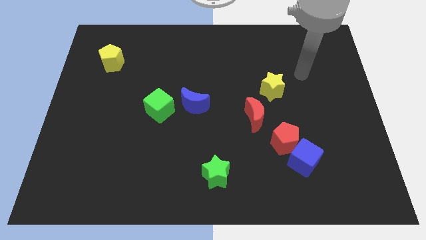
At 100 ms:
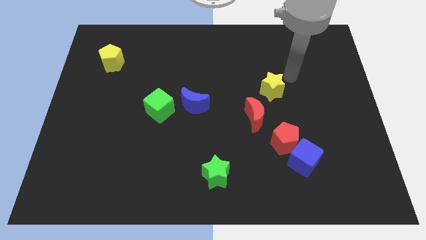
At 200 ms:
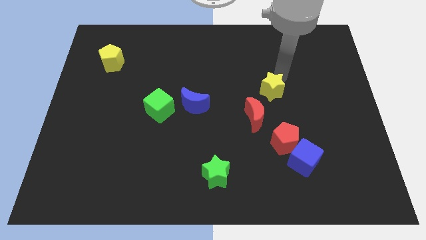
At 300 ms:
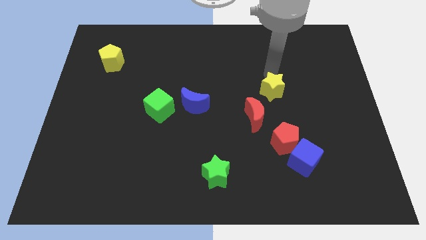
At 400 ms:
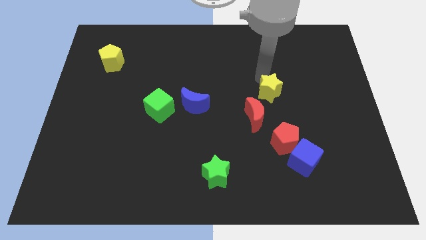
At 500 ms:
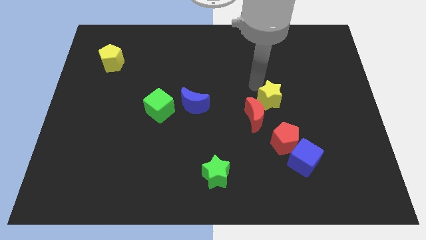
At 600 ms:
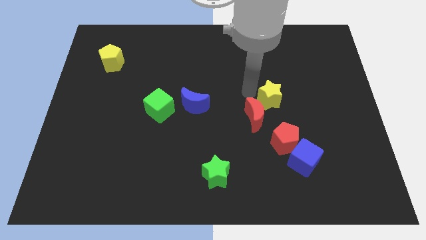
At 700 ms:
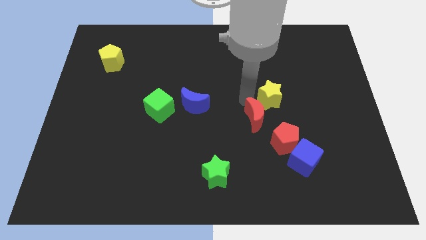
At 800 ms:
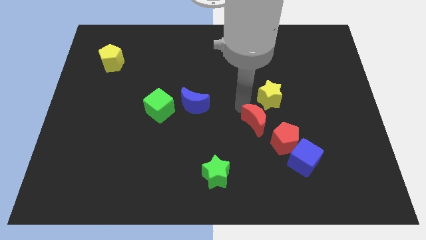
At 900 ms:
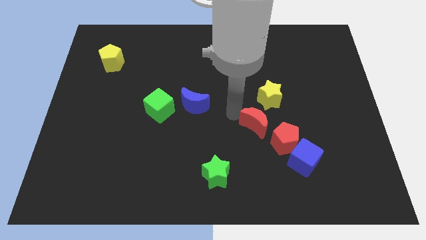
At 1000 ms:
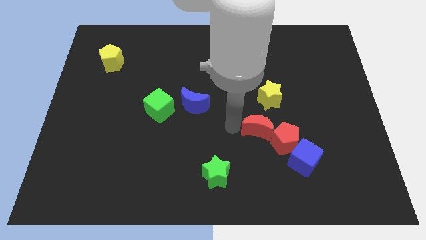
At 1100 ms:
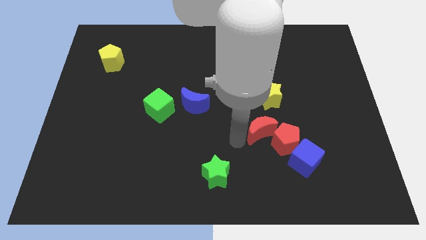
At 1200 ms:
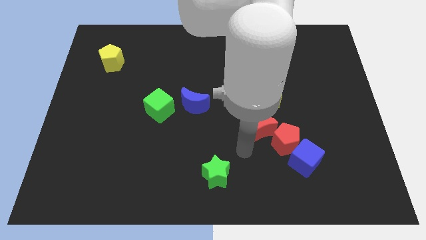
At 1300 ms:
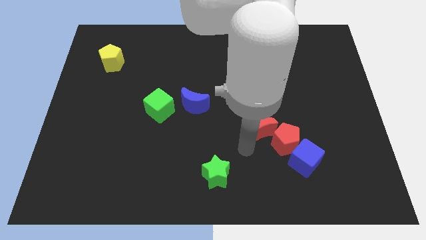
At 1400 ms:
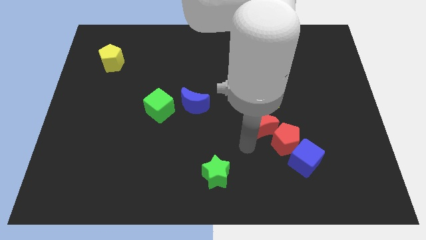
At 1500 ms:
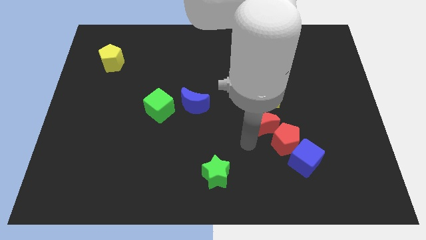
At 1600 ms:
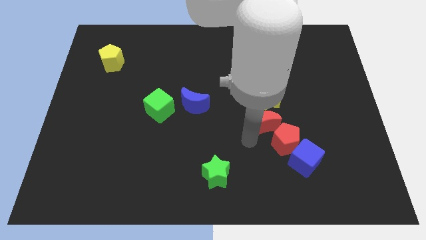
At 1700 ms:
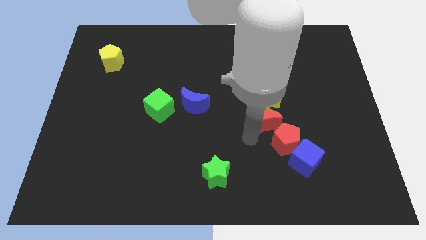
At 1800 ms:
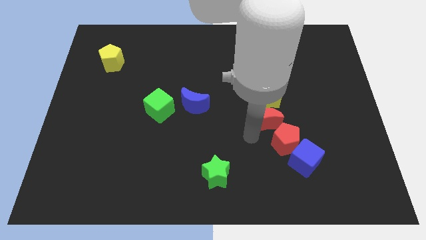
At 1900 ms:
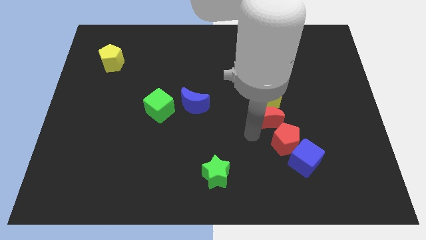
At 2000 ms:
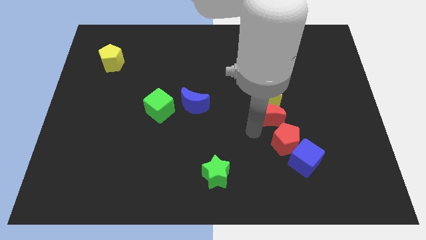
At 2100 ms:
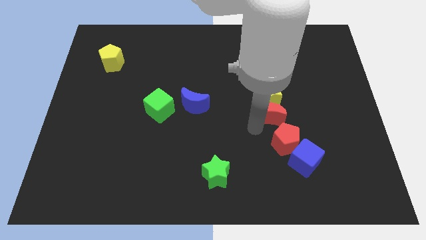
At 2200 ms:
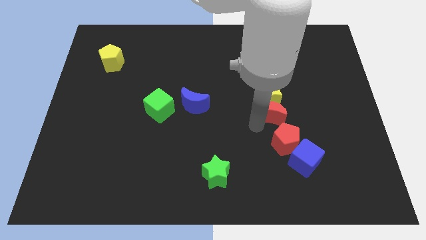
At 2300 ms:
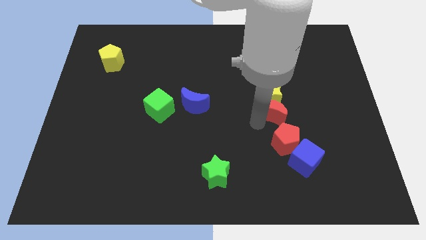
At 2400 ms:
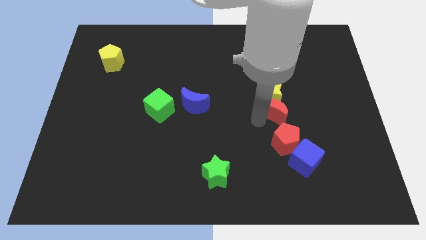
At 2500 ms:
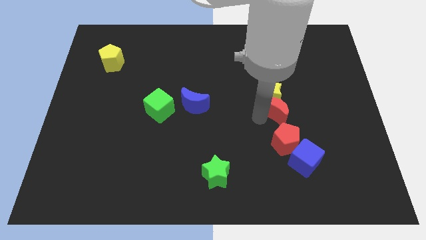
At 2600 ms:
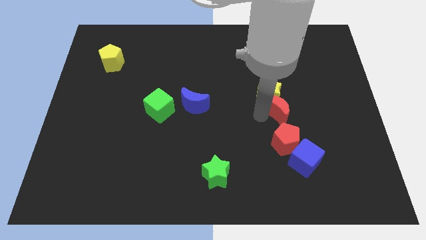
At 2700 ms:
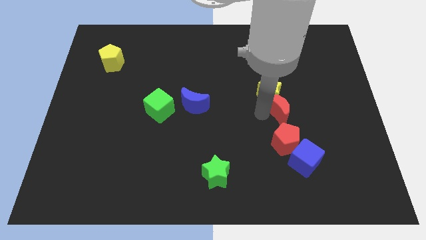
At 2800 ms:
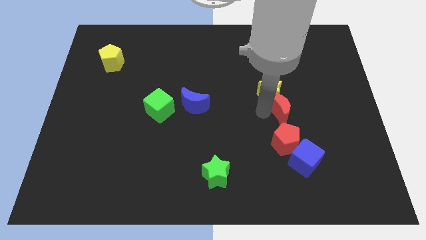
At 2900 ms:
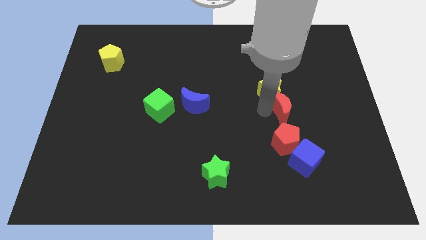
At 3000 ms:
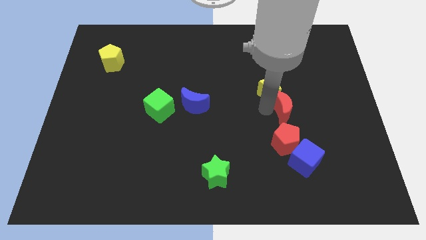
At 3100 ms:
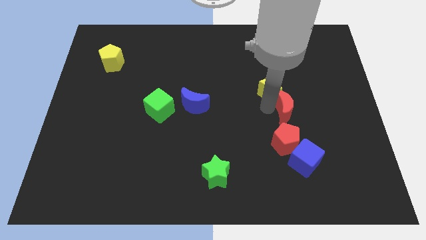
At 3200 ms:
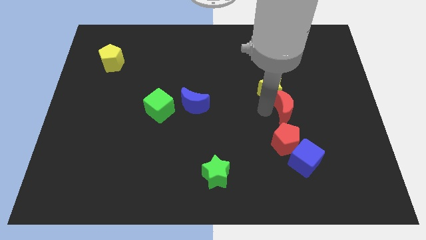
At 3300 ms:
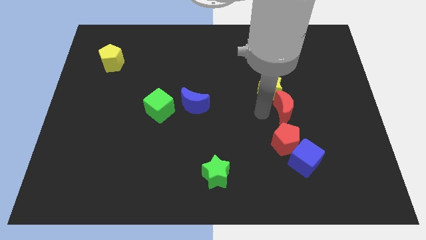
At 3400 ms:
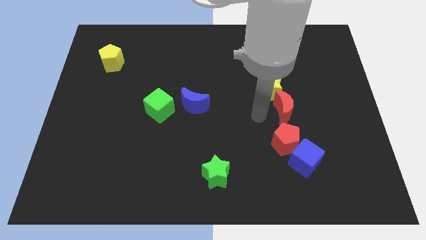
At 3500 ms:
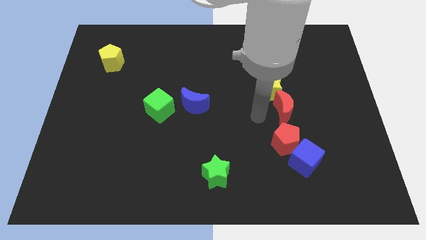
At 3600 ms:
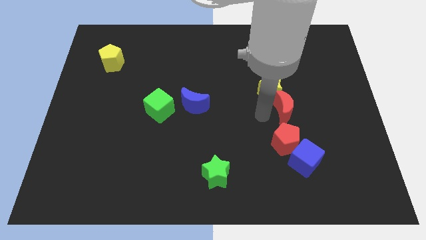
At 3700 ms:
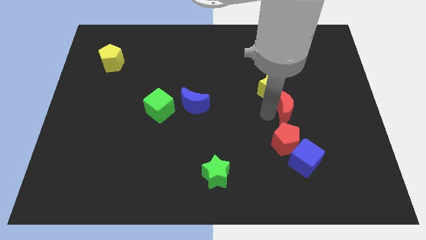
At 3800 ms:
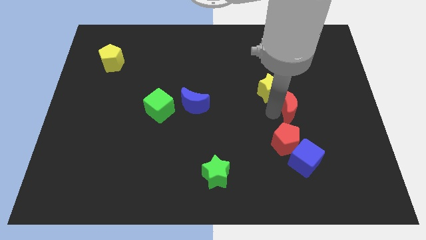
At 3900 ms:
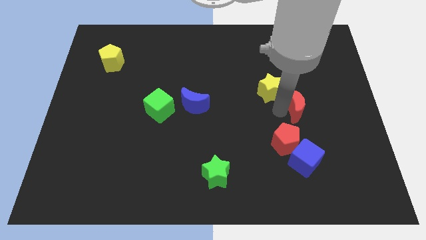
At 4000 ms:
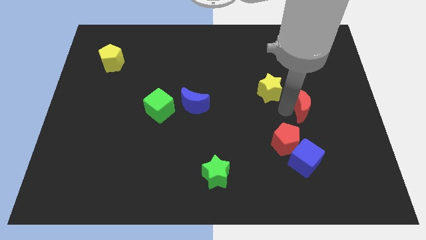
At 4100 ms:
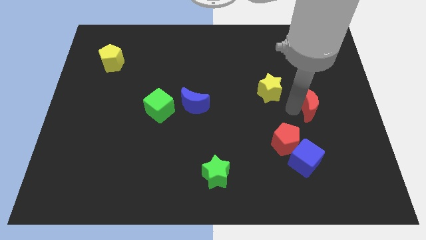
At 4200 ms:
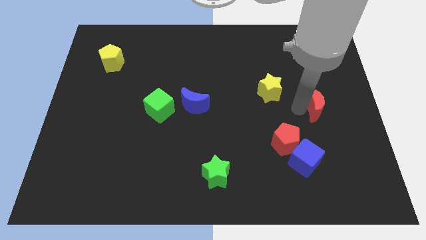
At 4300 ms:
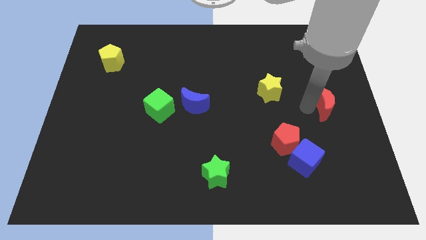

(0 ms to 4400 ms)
slide the red moon to the center right

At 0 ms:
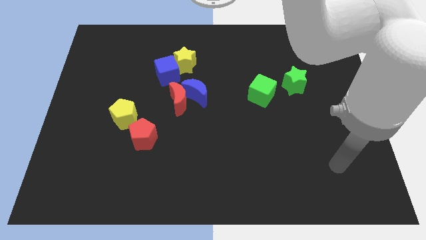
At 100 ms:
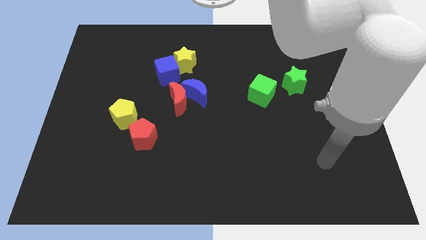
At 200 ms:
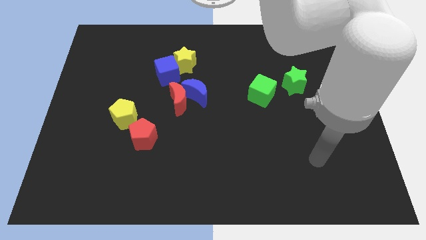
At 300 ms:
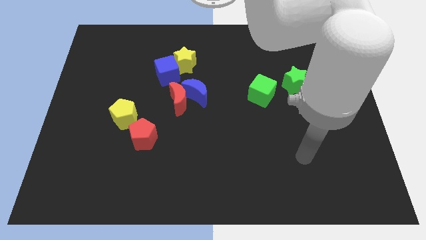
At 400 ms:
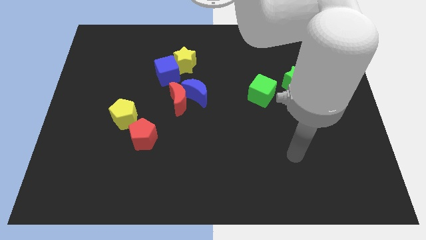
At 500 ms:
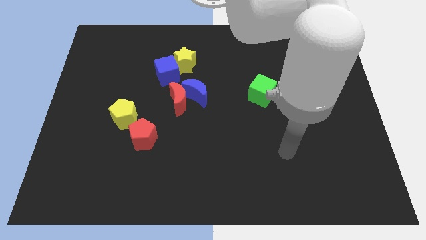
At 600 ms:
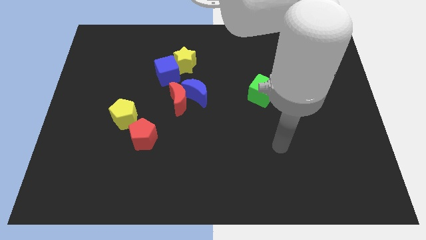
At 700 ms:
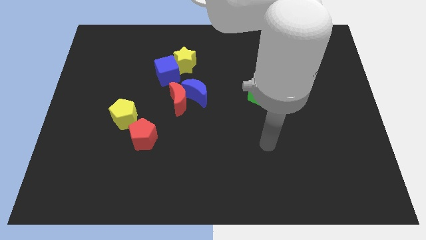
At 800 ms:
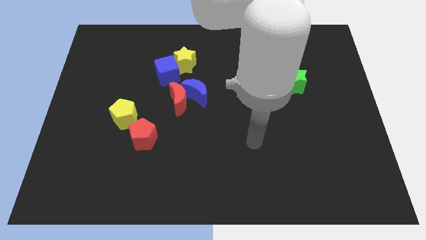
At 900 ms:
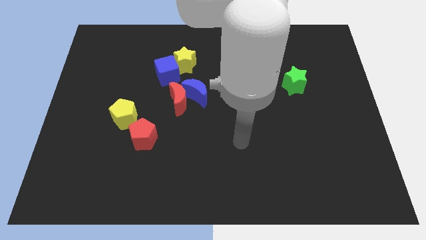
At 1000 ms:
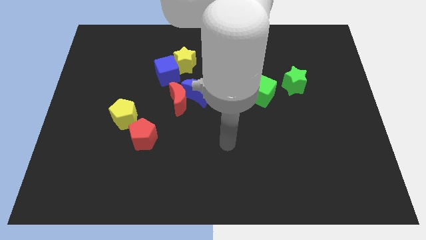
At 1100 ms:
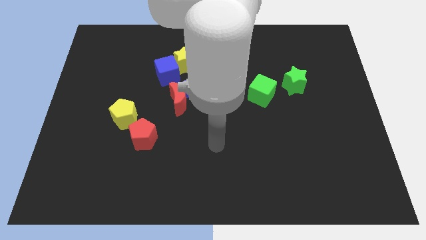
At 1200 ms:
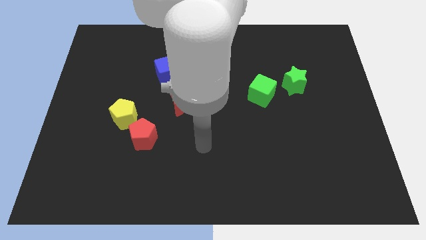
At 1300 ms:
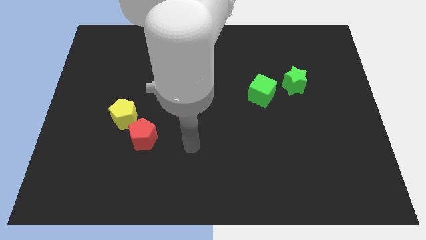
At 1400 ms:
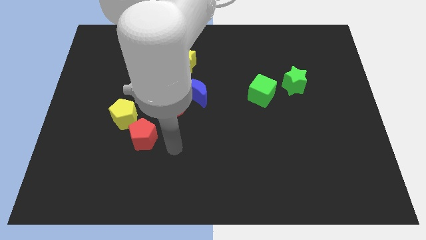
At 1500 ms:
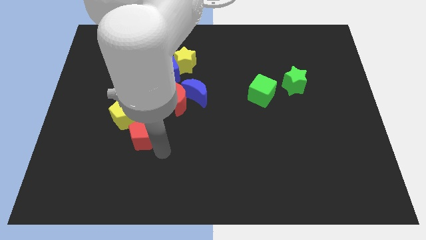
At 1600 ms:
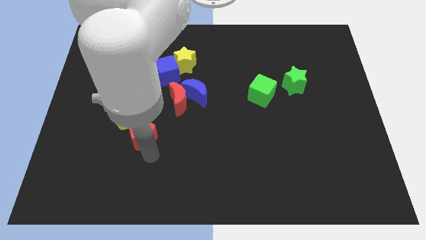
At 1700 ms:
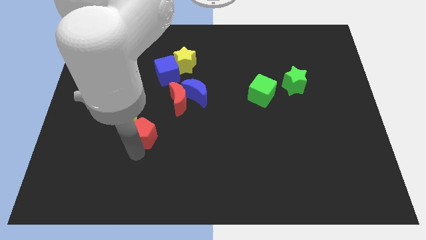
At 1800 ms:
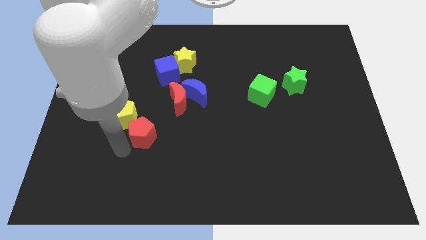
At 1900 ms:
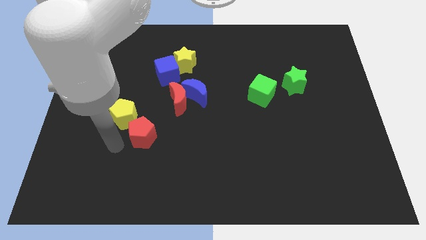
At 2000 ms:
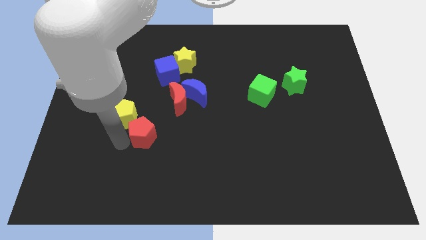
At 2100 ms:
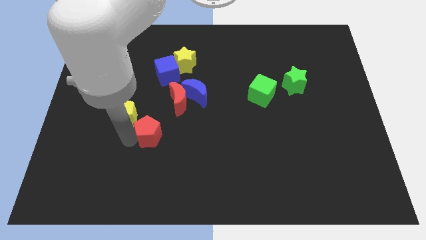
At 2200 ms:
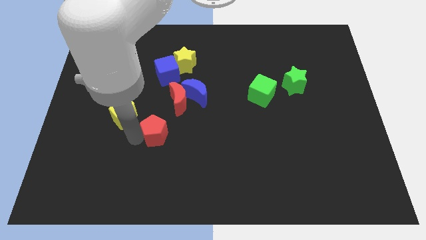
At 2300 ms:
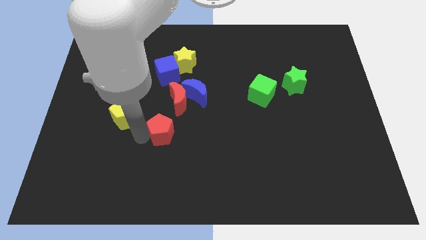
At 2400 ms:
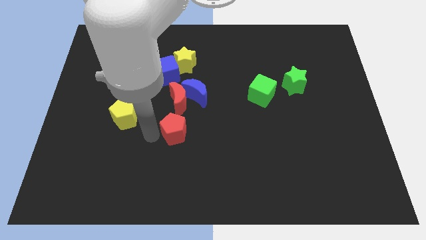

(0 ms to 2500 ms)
slide the red pentagon to the middle
